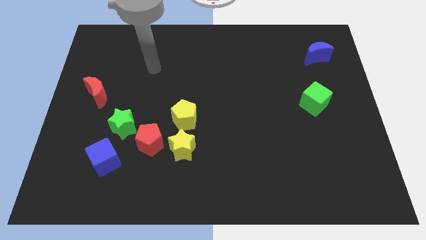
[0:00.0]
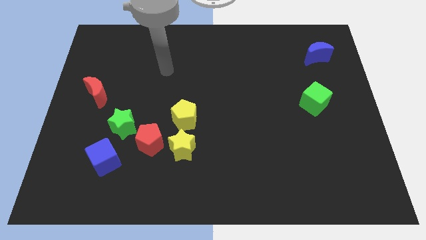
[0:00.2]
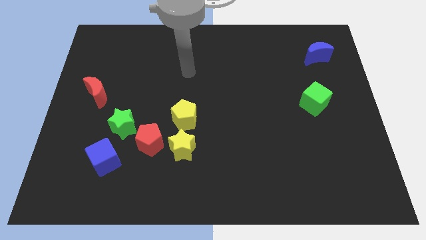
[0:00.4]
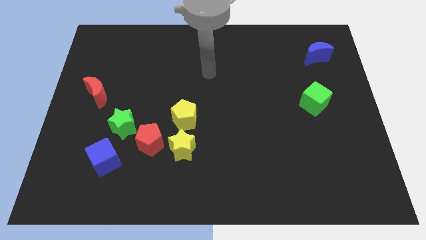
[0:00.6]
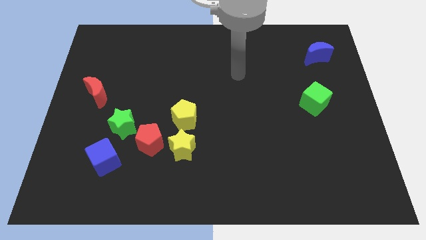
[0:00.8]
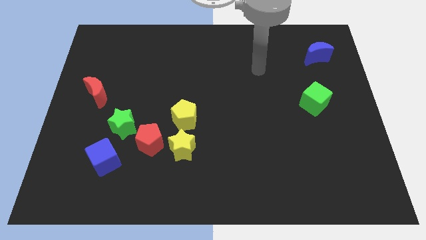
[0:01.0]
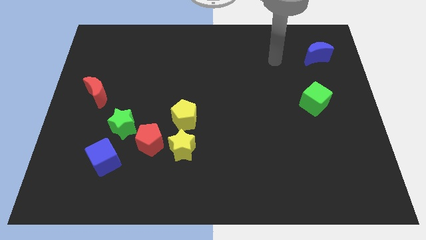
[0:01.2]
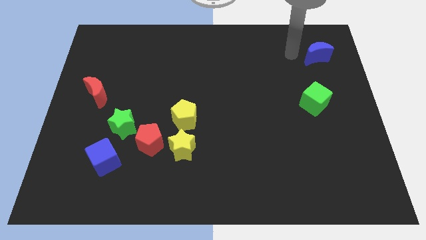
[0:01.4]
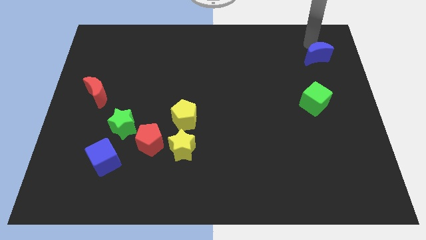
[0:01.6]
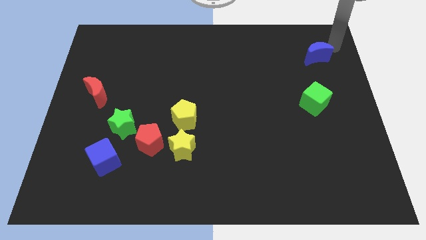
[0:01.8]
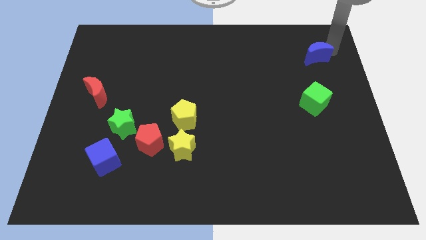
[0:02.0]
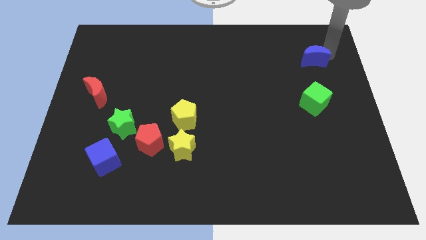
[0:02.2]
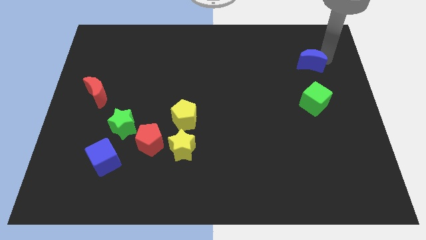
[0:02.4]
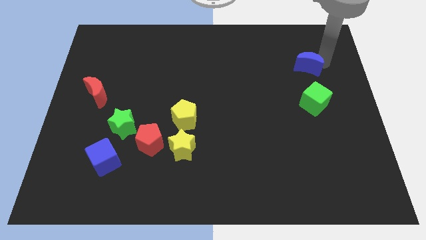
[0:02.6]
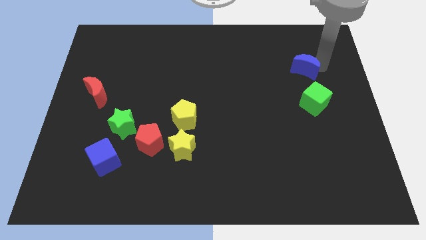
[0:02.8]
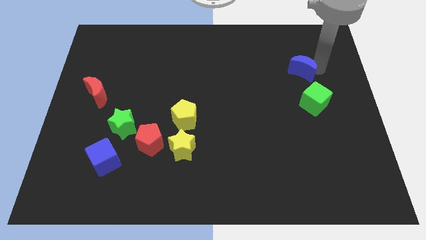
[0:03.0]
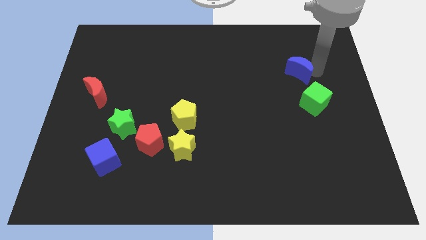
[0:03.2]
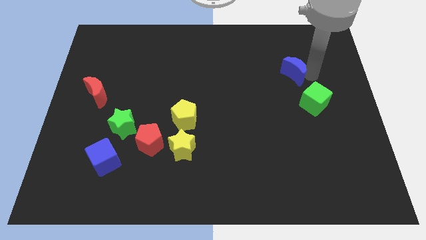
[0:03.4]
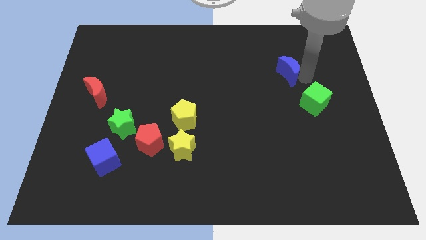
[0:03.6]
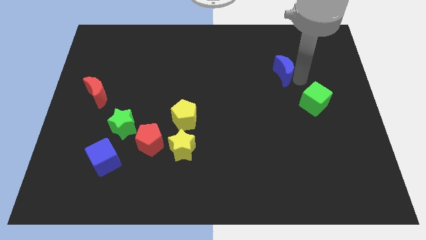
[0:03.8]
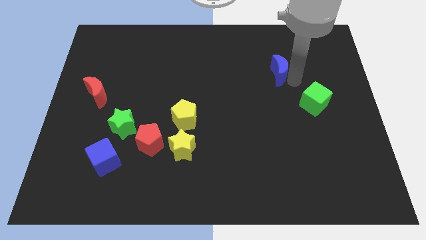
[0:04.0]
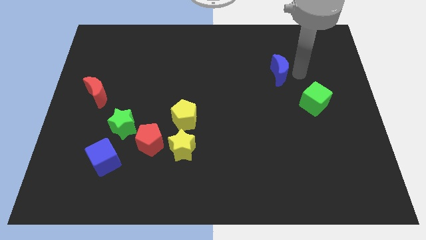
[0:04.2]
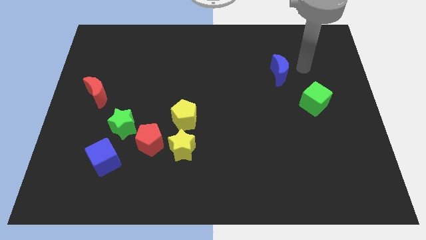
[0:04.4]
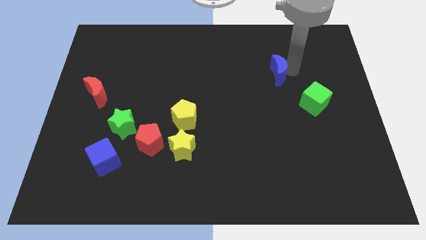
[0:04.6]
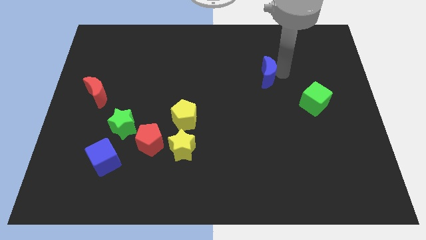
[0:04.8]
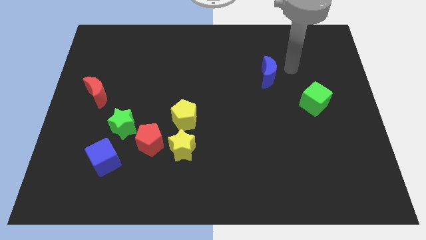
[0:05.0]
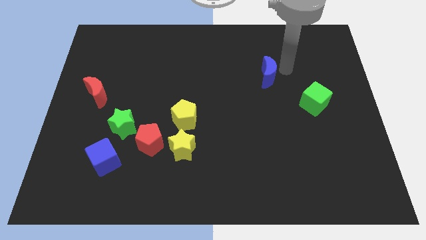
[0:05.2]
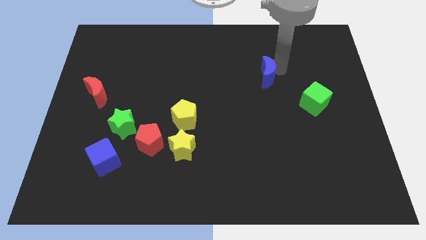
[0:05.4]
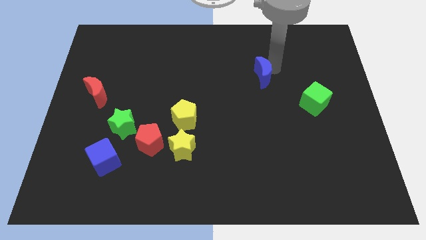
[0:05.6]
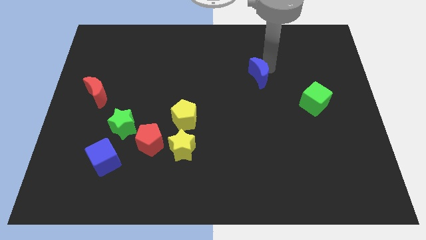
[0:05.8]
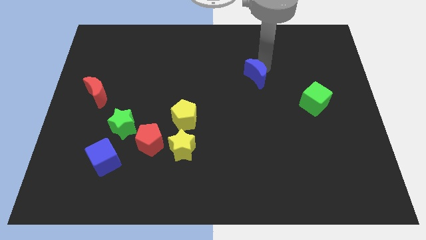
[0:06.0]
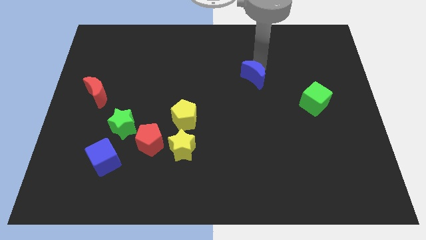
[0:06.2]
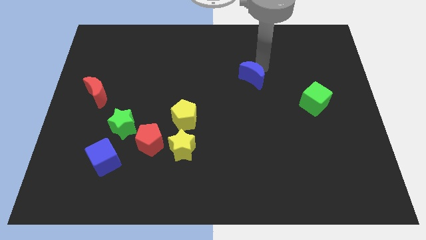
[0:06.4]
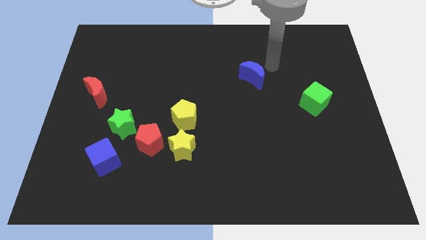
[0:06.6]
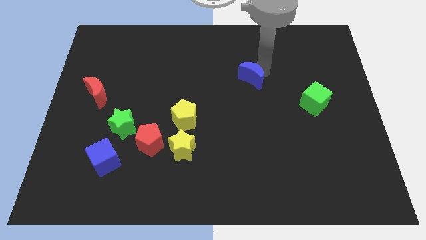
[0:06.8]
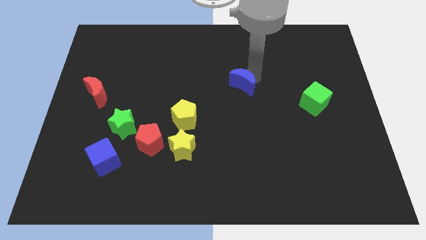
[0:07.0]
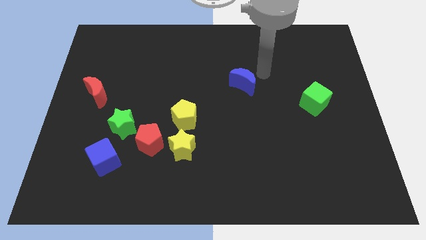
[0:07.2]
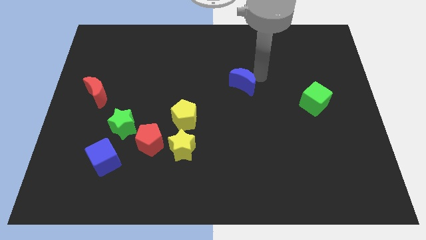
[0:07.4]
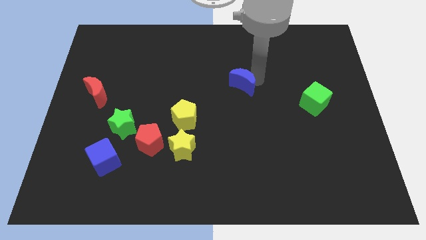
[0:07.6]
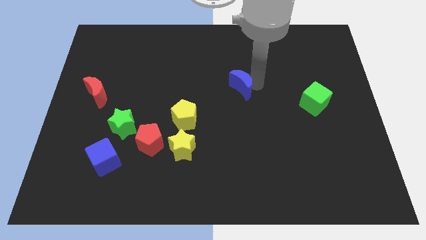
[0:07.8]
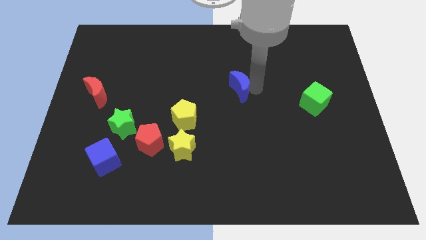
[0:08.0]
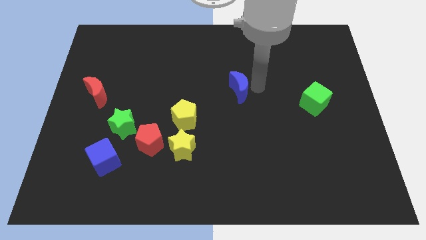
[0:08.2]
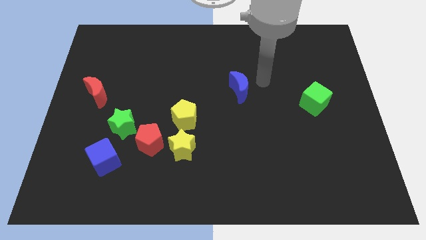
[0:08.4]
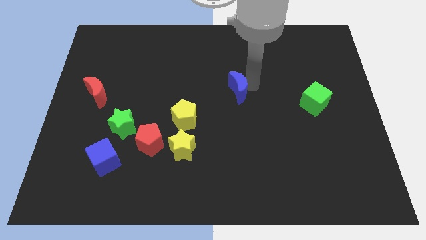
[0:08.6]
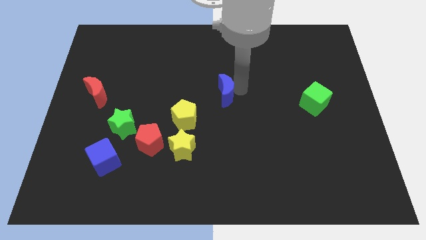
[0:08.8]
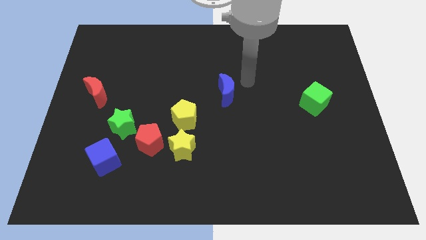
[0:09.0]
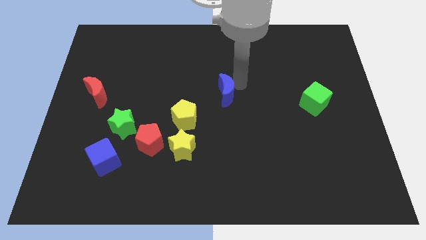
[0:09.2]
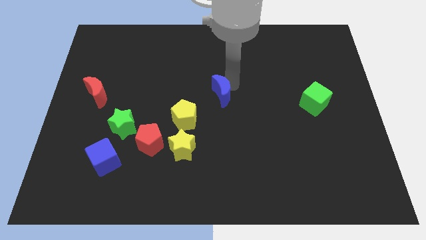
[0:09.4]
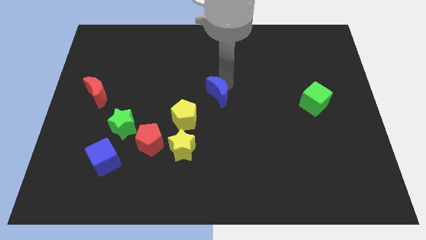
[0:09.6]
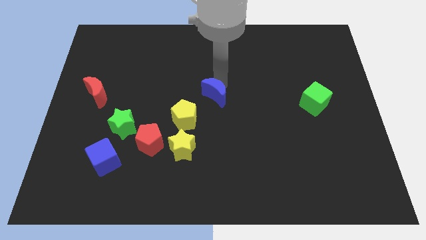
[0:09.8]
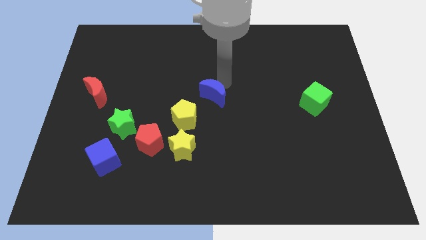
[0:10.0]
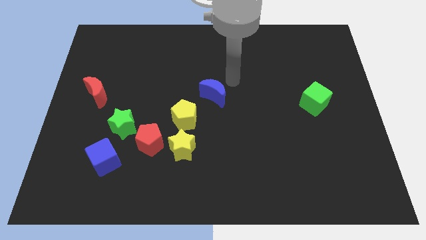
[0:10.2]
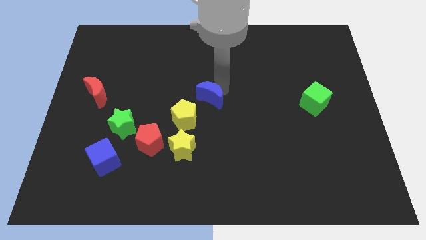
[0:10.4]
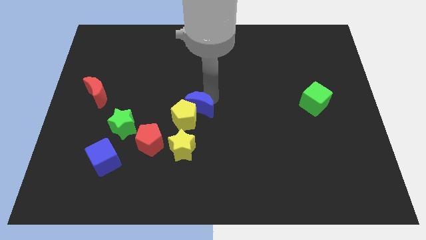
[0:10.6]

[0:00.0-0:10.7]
slide the blue moon to the yellow pentagon

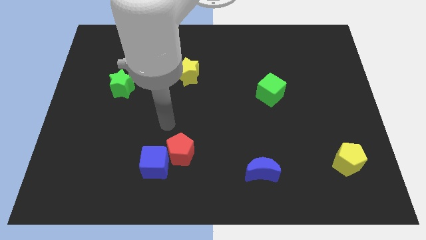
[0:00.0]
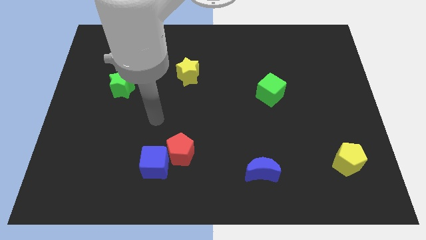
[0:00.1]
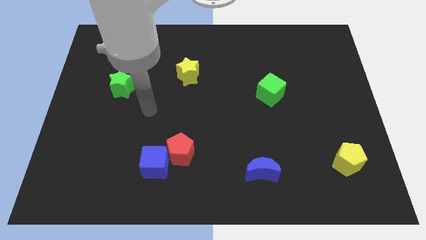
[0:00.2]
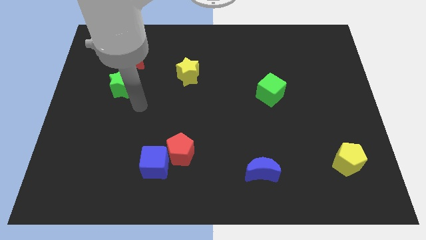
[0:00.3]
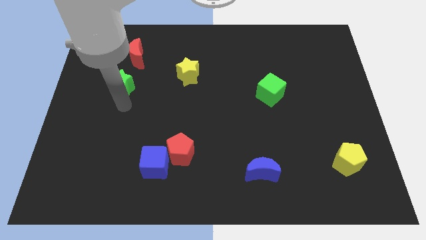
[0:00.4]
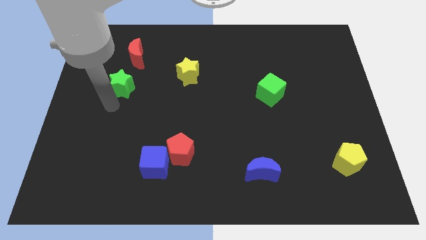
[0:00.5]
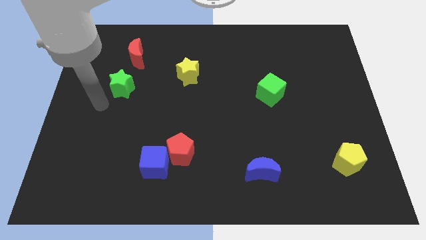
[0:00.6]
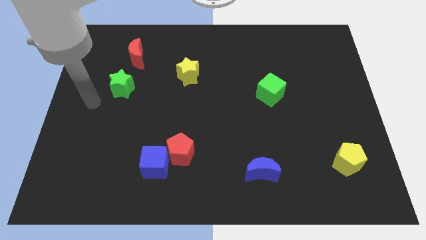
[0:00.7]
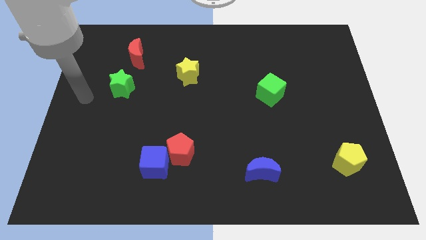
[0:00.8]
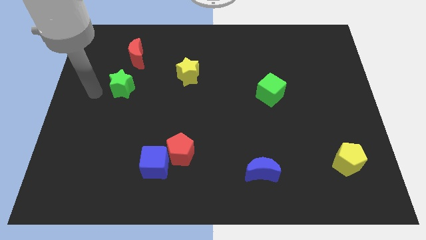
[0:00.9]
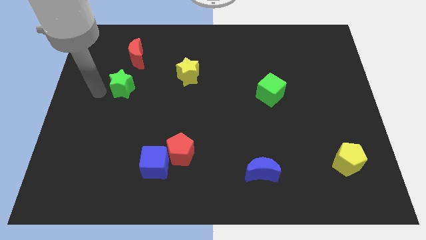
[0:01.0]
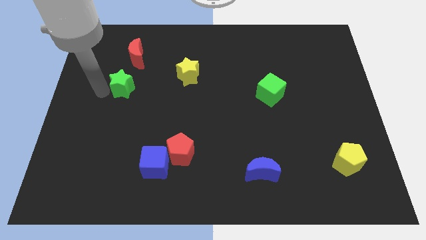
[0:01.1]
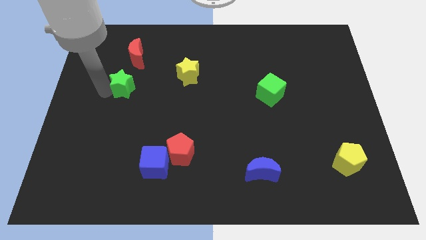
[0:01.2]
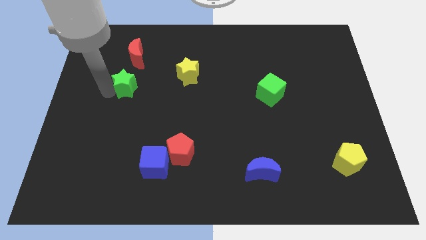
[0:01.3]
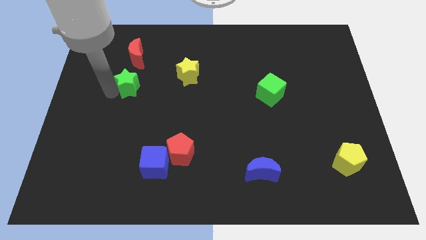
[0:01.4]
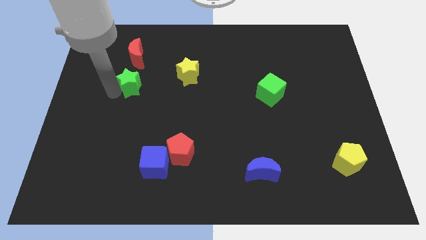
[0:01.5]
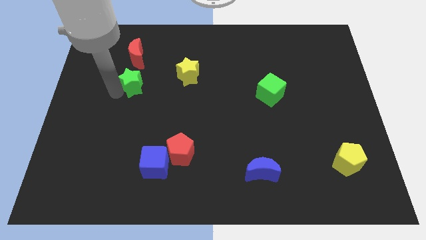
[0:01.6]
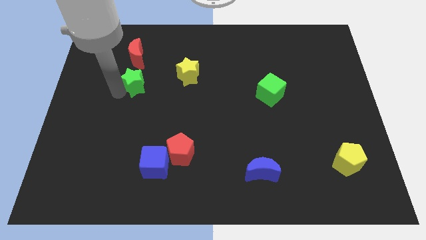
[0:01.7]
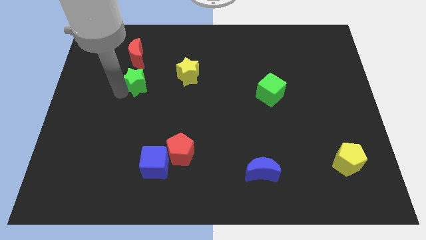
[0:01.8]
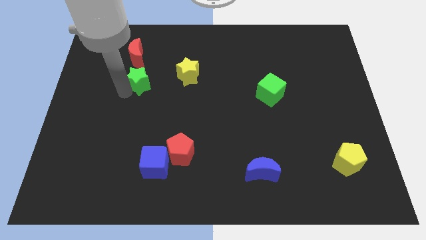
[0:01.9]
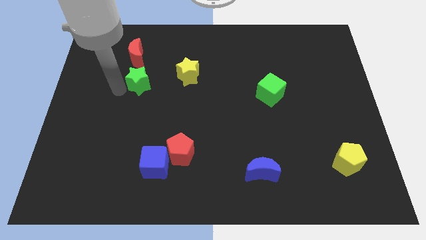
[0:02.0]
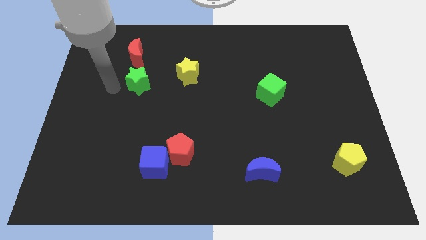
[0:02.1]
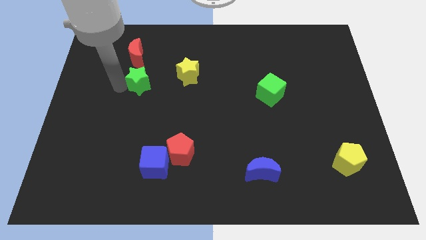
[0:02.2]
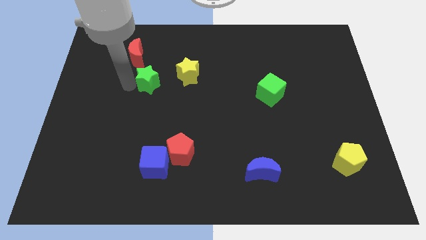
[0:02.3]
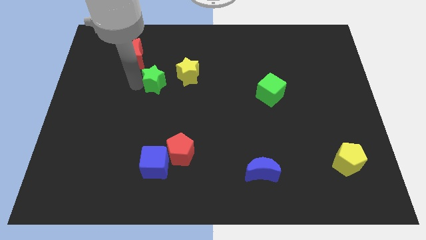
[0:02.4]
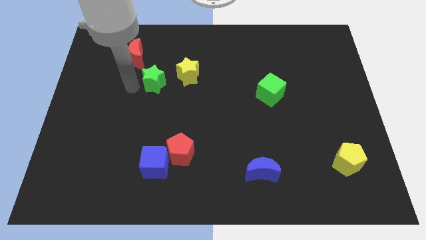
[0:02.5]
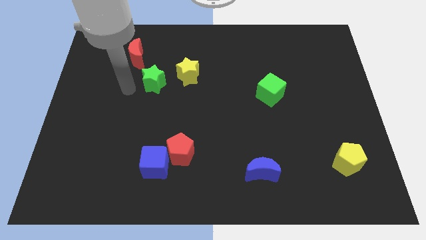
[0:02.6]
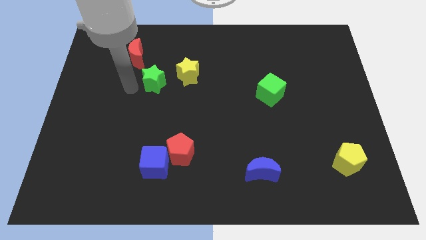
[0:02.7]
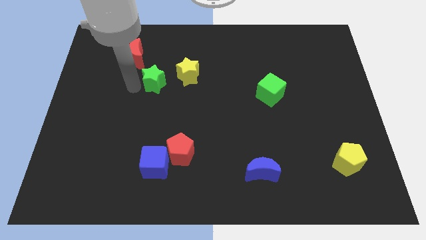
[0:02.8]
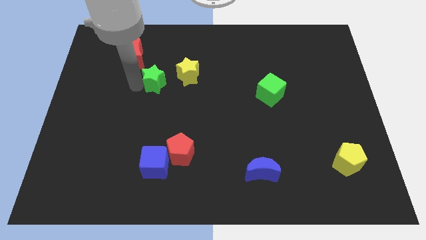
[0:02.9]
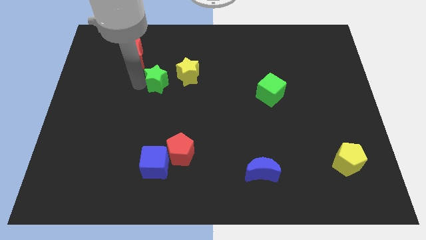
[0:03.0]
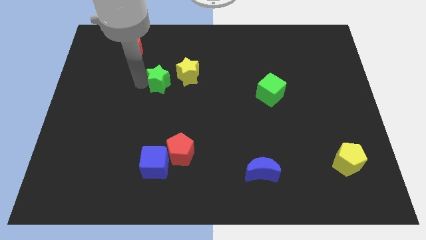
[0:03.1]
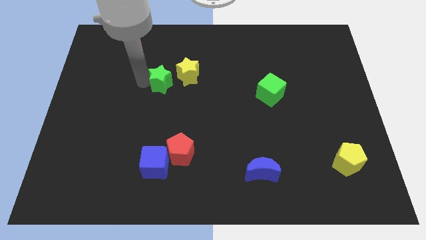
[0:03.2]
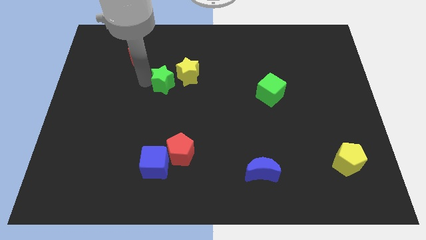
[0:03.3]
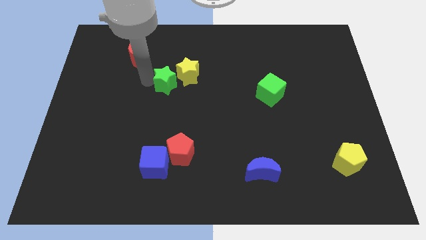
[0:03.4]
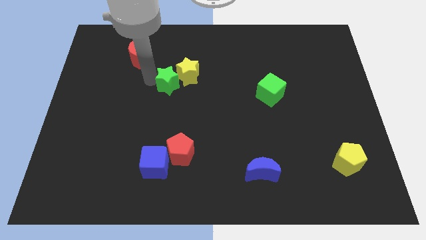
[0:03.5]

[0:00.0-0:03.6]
push the green star next to the yellow star
